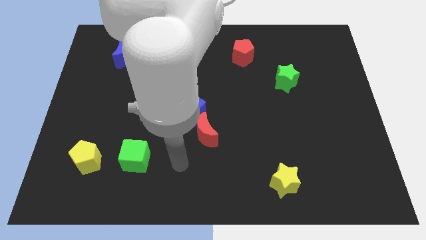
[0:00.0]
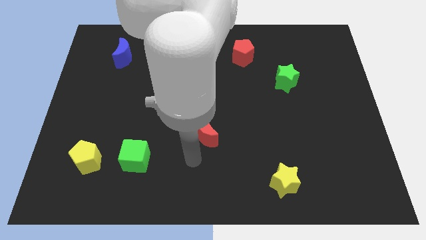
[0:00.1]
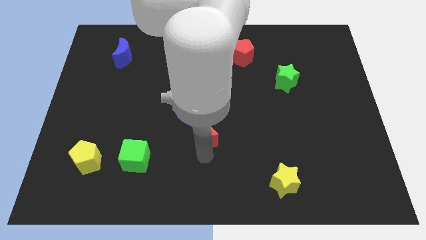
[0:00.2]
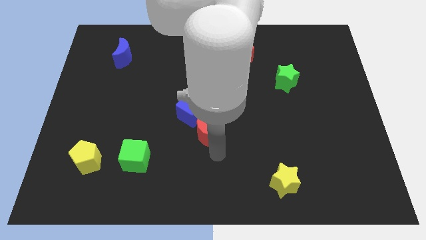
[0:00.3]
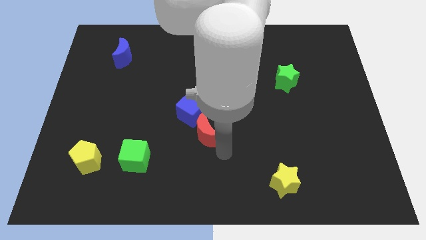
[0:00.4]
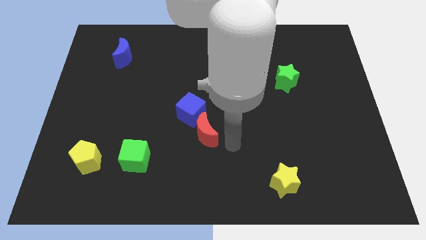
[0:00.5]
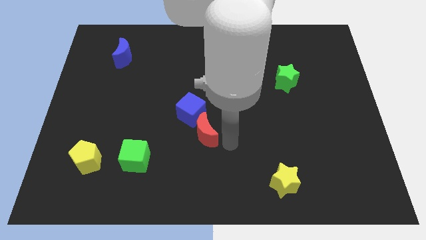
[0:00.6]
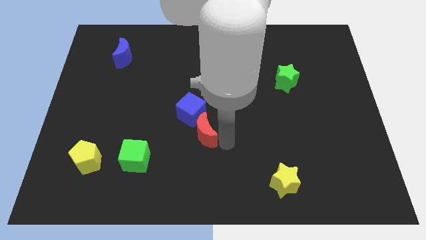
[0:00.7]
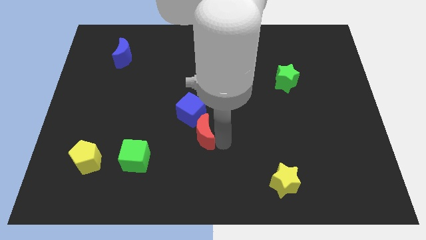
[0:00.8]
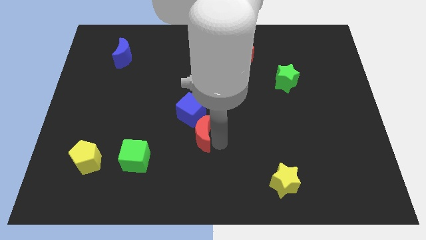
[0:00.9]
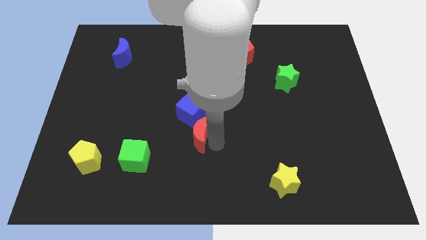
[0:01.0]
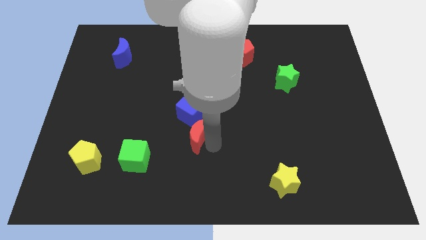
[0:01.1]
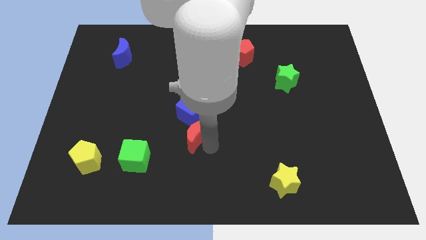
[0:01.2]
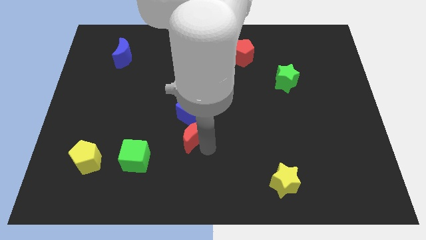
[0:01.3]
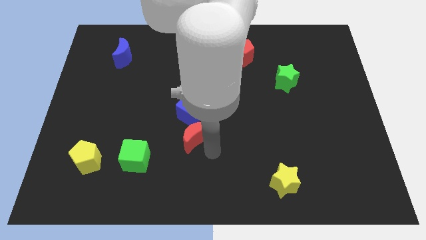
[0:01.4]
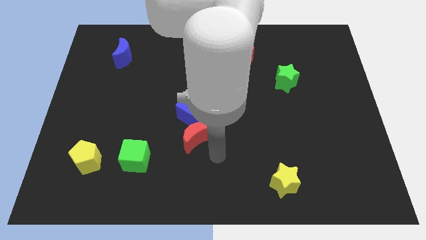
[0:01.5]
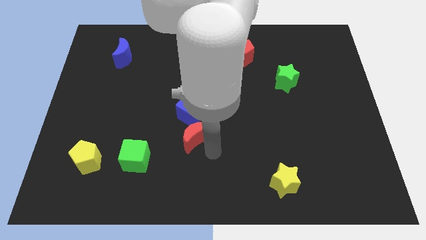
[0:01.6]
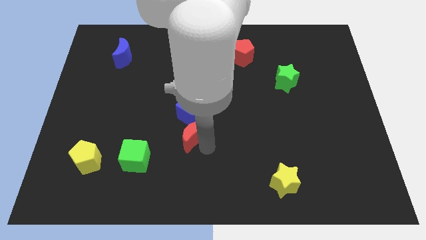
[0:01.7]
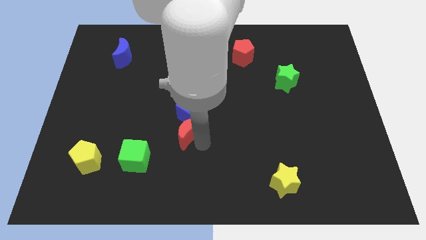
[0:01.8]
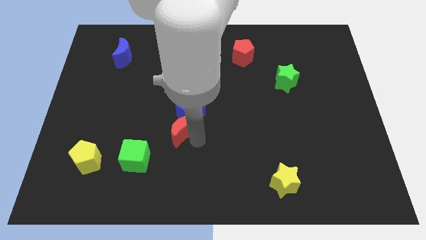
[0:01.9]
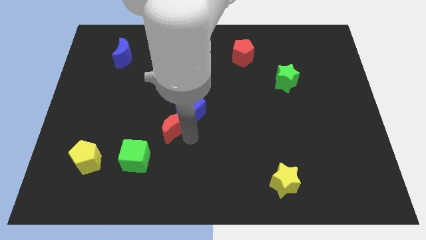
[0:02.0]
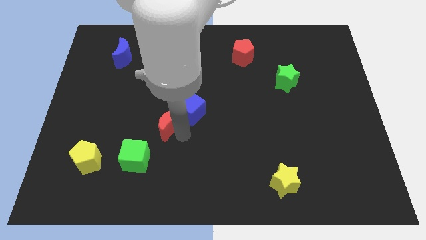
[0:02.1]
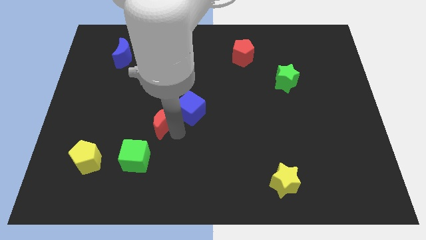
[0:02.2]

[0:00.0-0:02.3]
slightly move the red moon up and then left

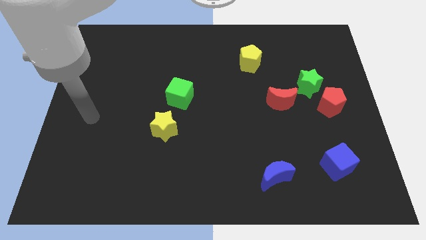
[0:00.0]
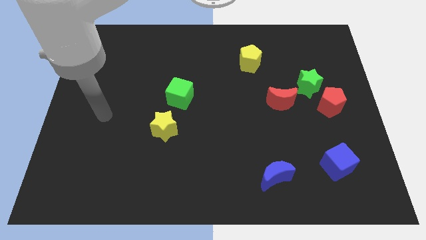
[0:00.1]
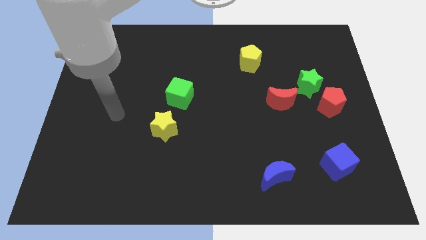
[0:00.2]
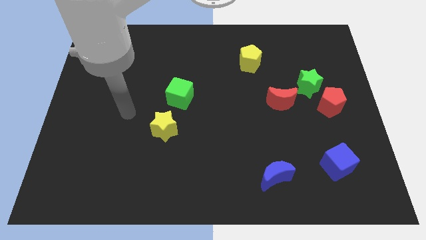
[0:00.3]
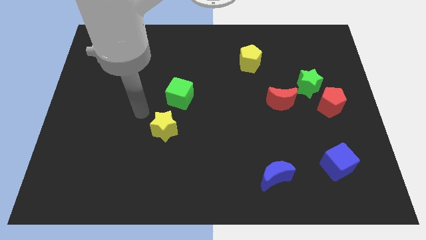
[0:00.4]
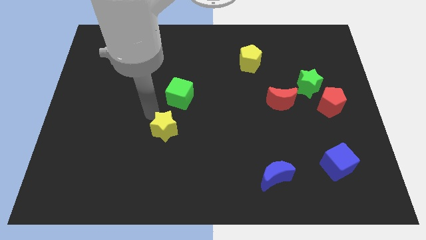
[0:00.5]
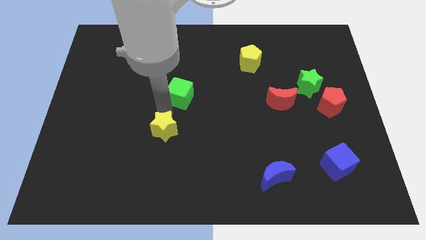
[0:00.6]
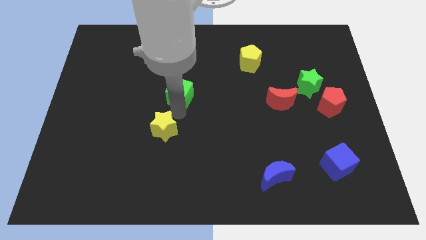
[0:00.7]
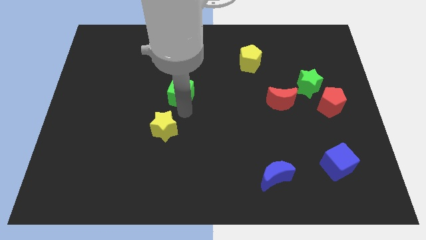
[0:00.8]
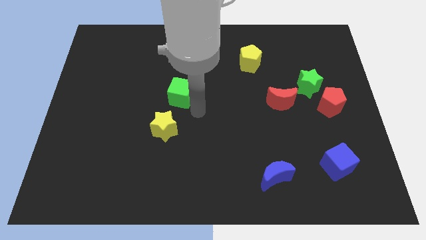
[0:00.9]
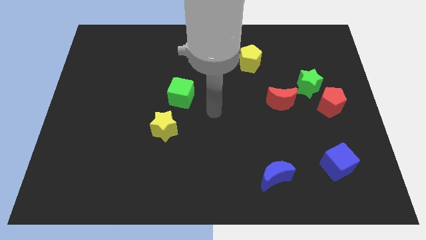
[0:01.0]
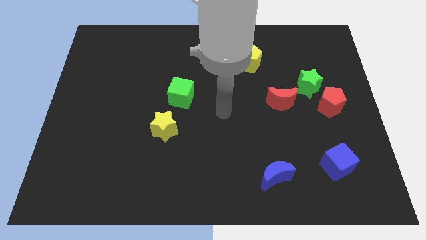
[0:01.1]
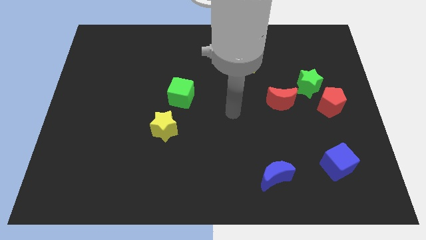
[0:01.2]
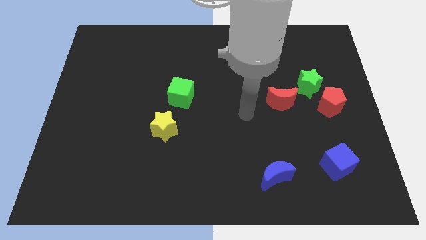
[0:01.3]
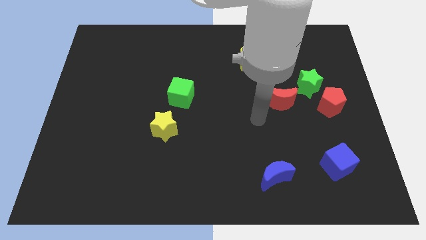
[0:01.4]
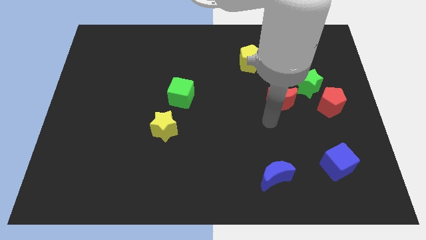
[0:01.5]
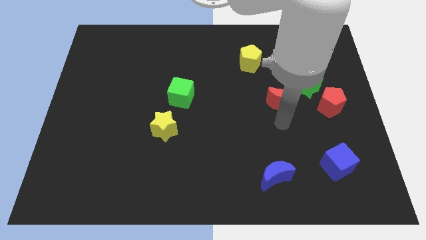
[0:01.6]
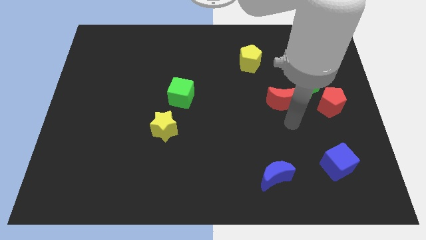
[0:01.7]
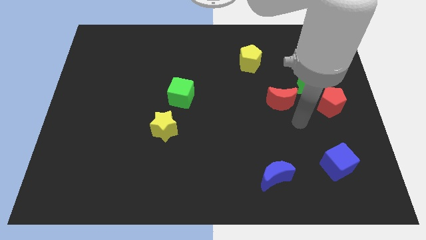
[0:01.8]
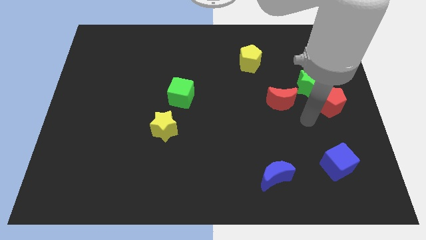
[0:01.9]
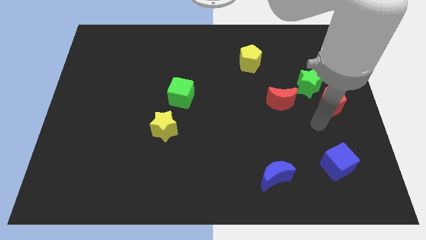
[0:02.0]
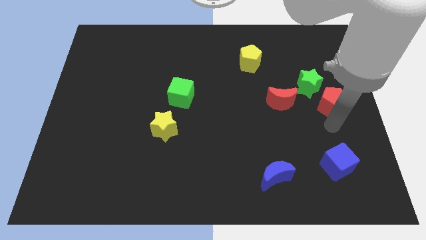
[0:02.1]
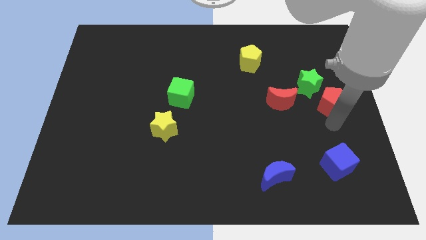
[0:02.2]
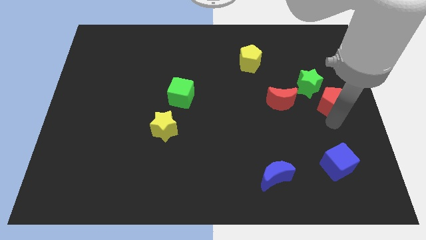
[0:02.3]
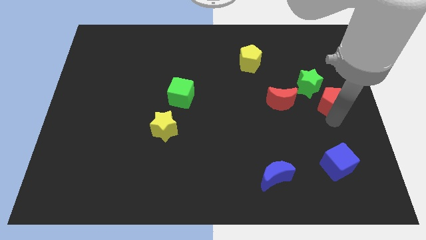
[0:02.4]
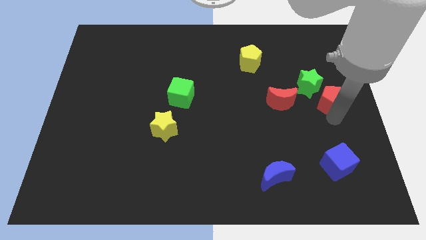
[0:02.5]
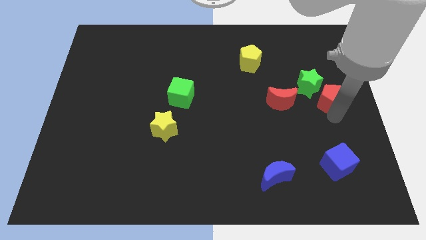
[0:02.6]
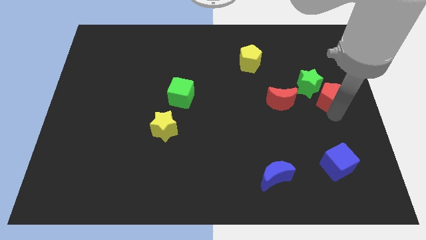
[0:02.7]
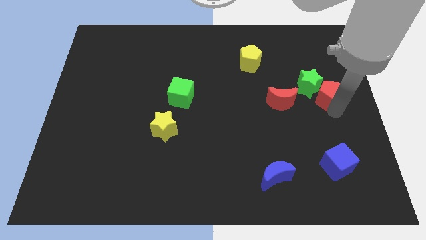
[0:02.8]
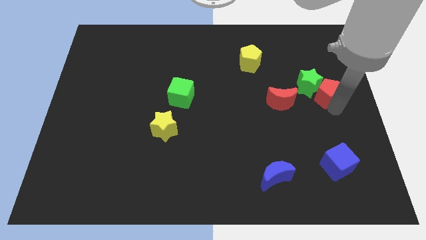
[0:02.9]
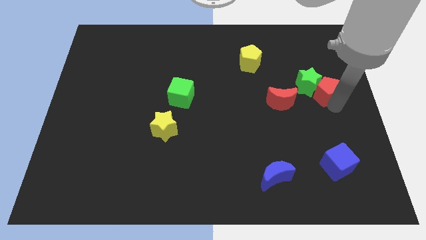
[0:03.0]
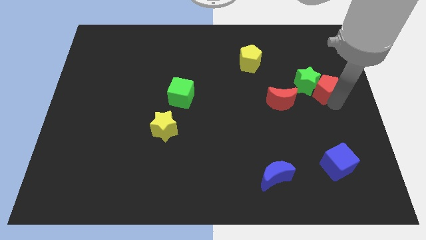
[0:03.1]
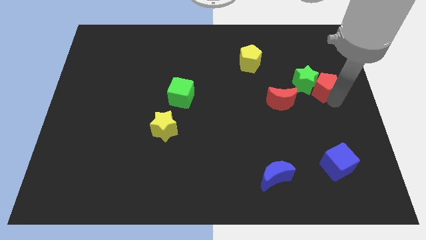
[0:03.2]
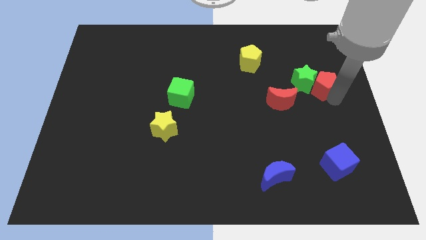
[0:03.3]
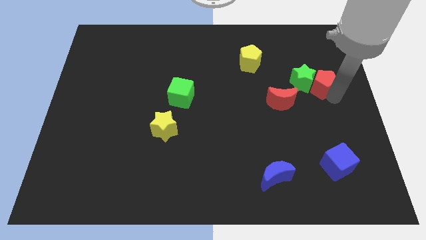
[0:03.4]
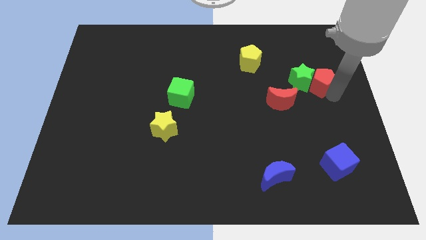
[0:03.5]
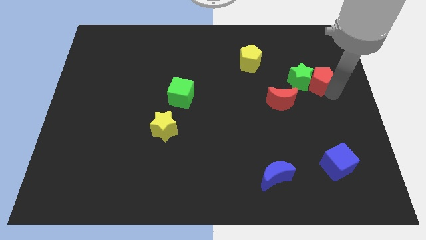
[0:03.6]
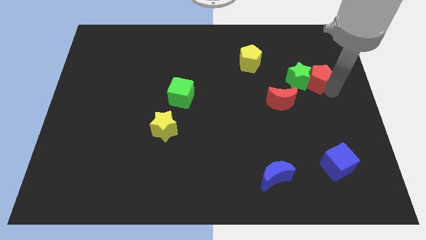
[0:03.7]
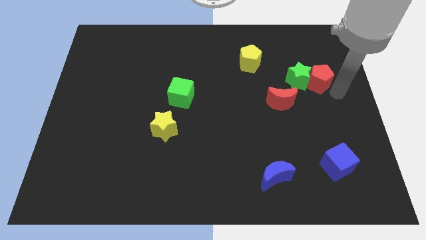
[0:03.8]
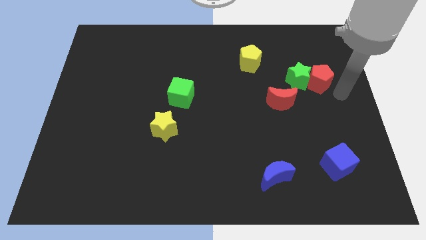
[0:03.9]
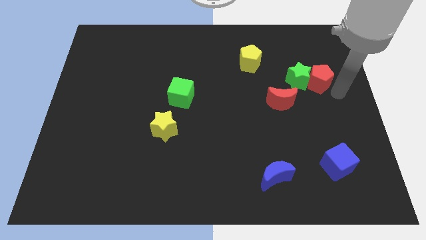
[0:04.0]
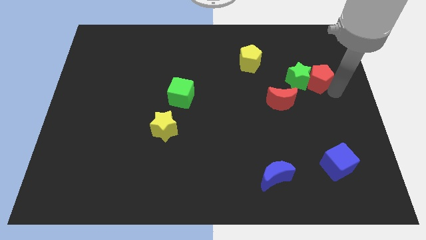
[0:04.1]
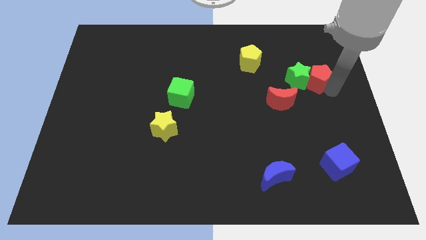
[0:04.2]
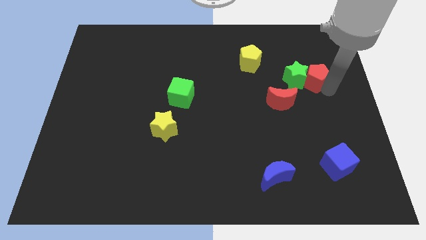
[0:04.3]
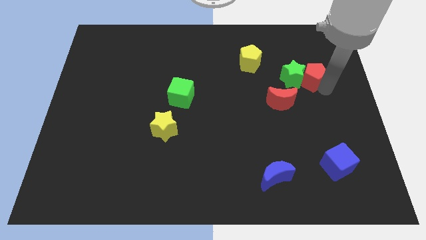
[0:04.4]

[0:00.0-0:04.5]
move the red pentagon slightly up and left

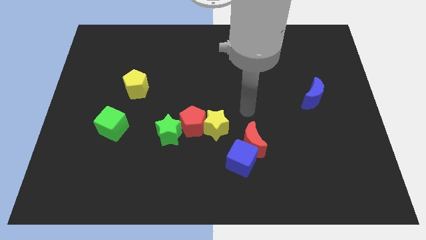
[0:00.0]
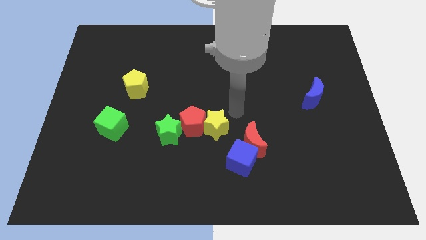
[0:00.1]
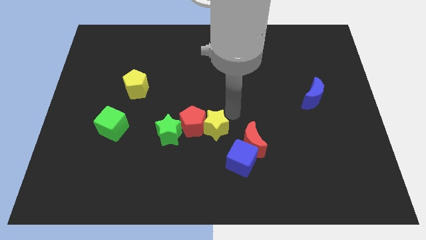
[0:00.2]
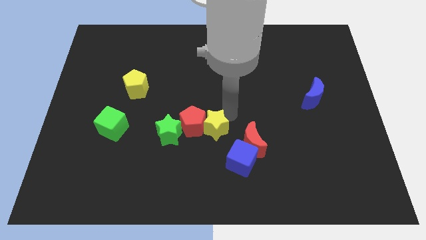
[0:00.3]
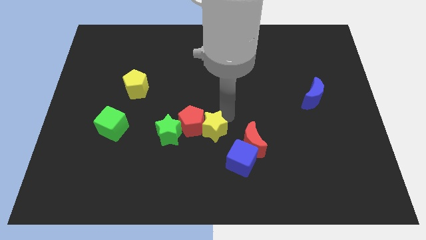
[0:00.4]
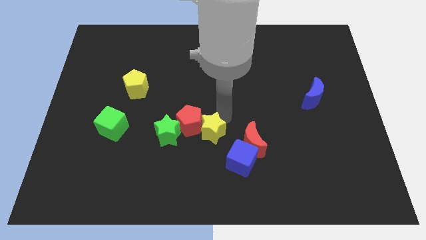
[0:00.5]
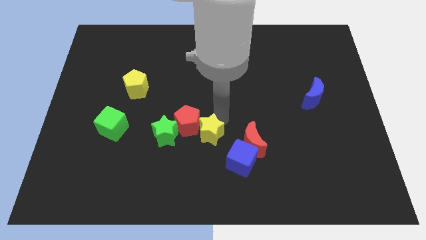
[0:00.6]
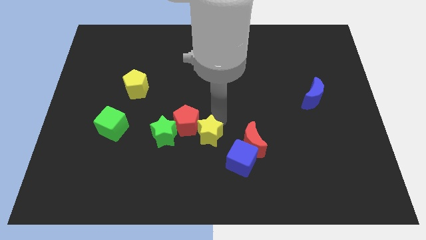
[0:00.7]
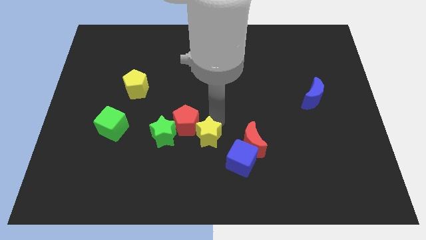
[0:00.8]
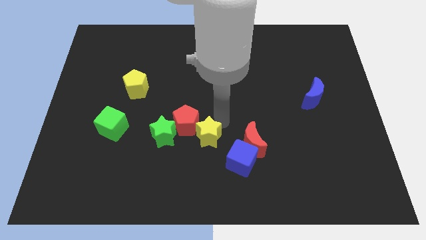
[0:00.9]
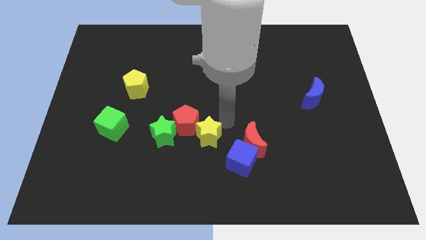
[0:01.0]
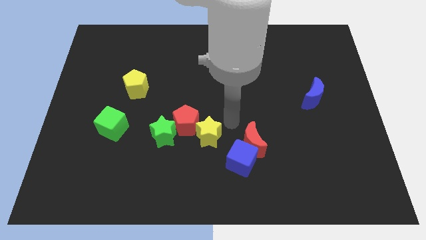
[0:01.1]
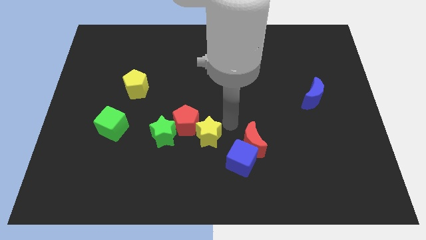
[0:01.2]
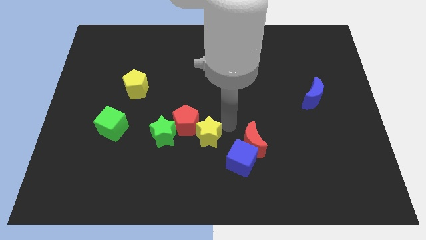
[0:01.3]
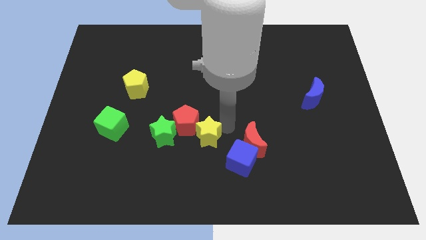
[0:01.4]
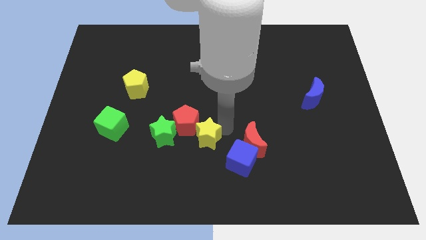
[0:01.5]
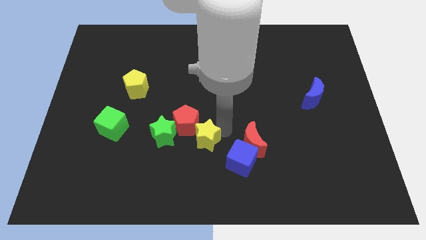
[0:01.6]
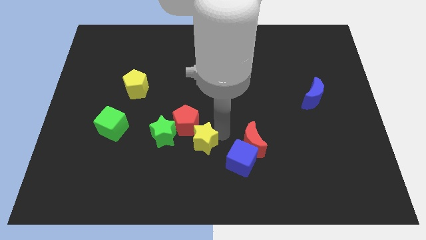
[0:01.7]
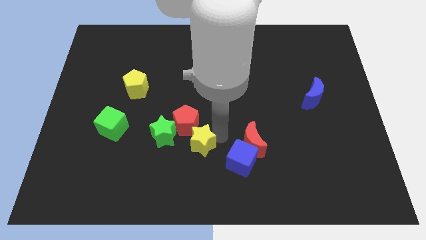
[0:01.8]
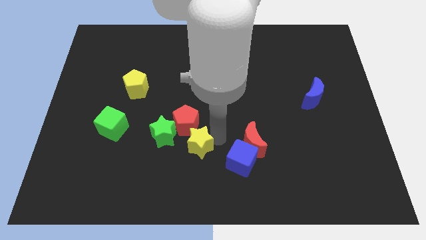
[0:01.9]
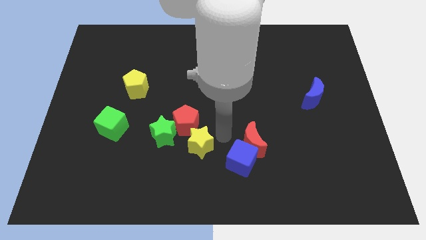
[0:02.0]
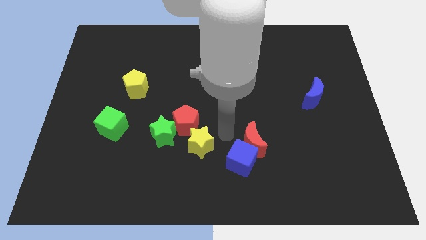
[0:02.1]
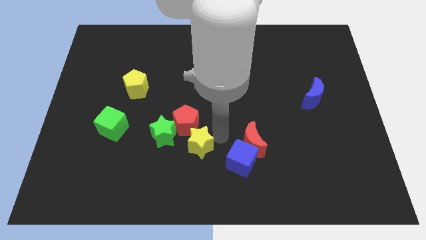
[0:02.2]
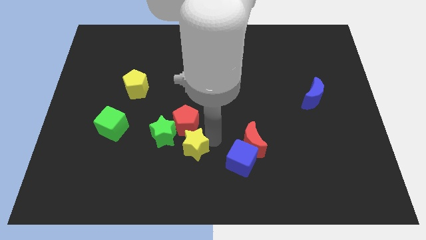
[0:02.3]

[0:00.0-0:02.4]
slightly slide the yellow star downwards and to the left diagonally
